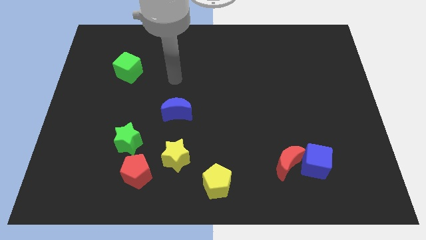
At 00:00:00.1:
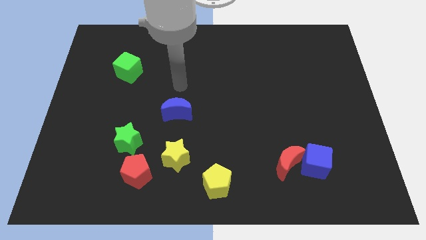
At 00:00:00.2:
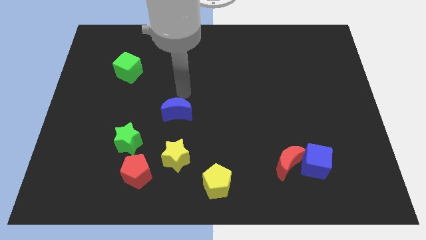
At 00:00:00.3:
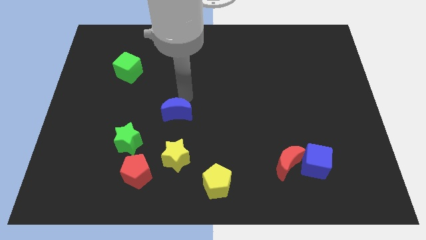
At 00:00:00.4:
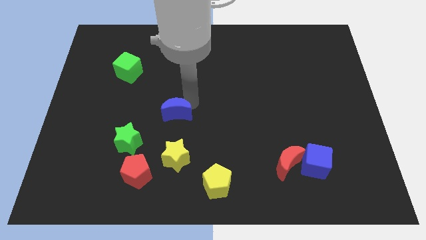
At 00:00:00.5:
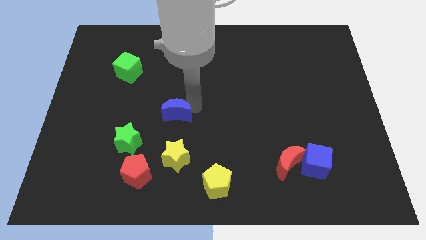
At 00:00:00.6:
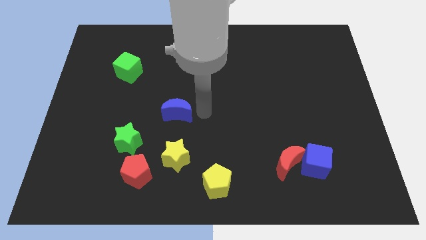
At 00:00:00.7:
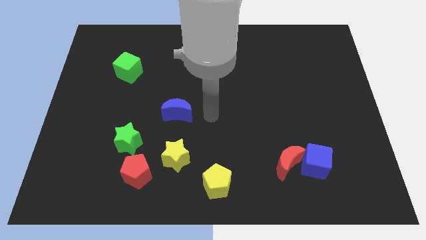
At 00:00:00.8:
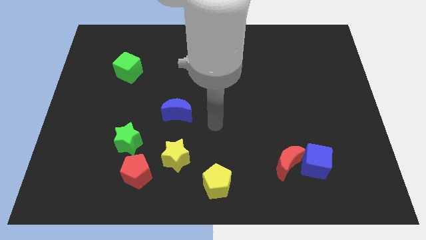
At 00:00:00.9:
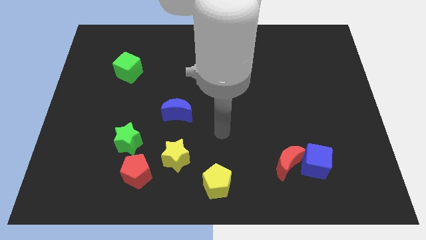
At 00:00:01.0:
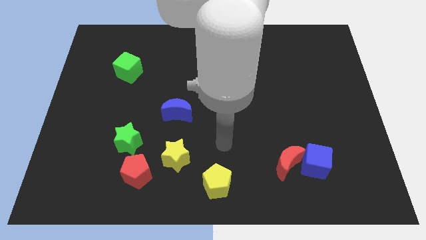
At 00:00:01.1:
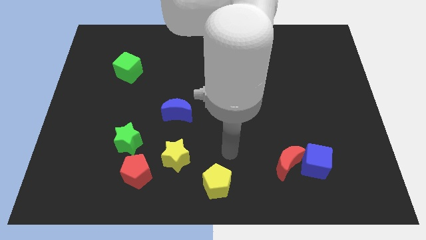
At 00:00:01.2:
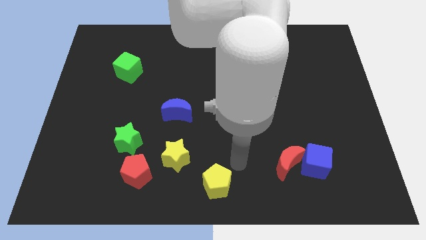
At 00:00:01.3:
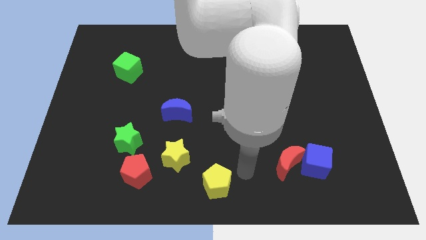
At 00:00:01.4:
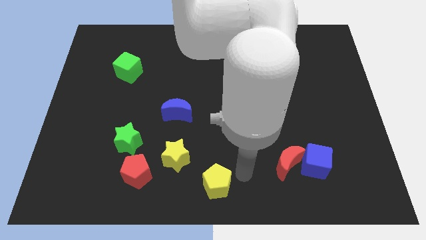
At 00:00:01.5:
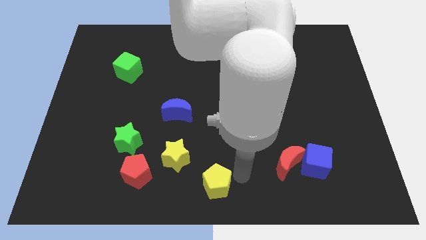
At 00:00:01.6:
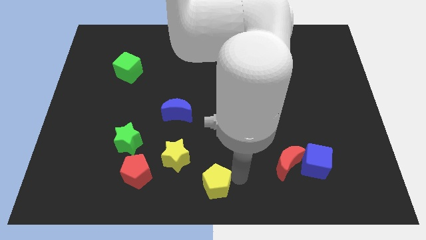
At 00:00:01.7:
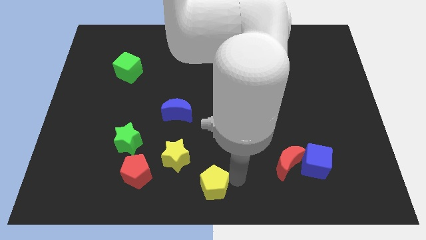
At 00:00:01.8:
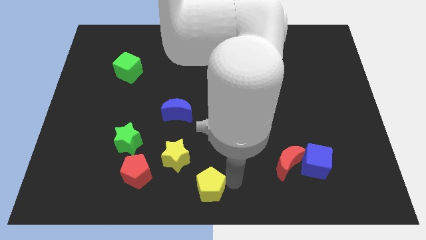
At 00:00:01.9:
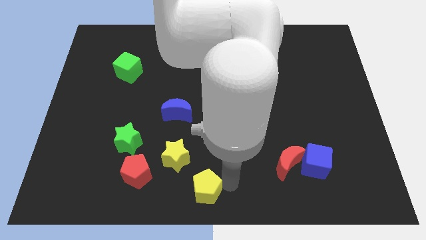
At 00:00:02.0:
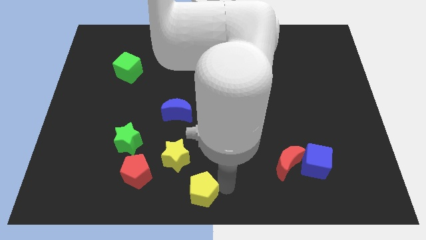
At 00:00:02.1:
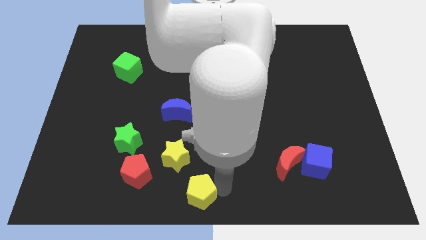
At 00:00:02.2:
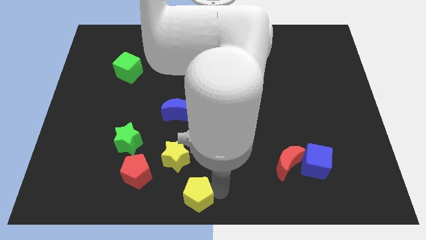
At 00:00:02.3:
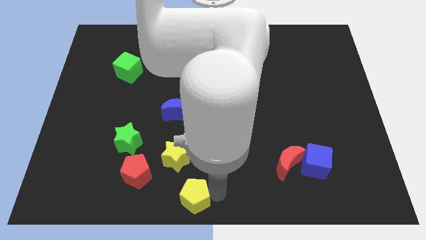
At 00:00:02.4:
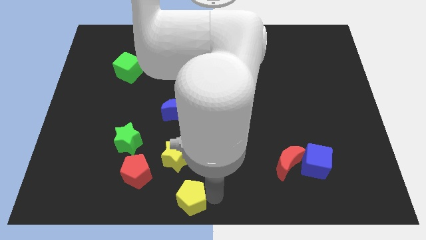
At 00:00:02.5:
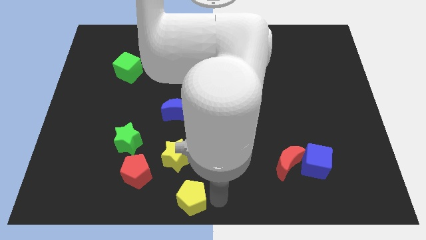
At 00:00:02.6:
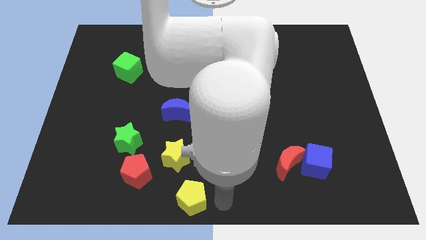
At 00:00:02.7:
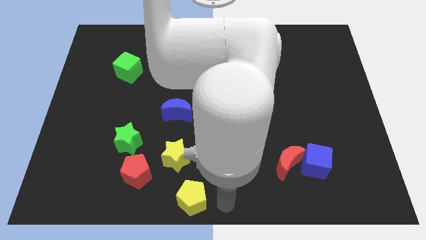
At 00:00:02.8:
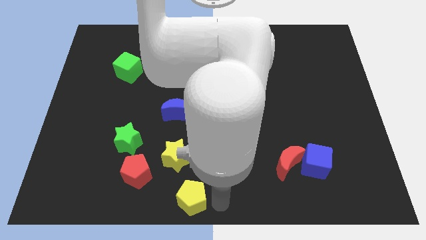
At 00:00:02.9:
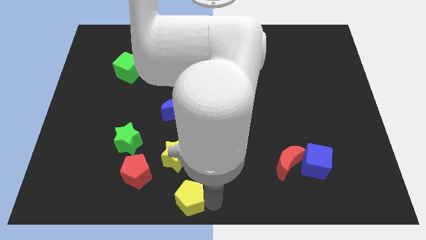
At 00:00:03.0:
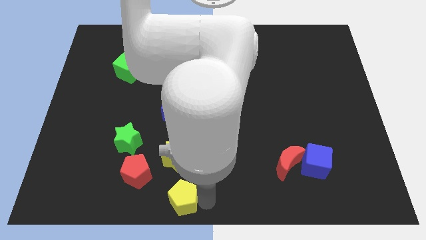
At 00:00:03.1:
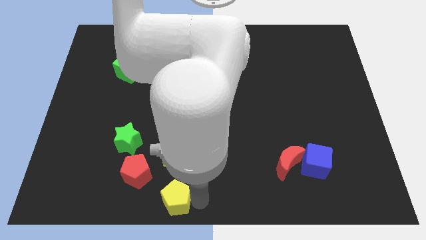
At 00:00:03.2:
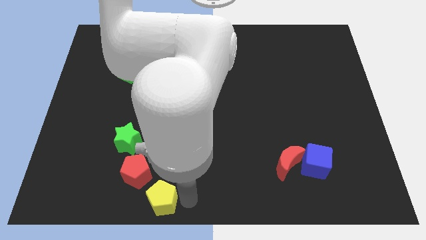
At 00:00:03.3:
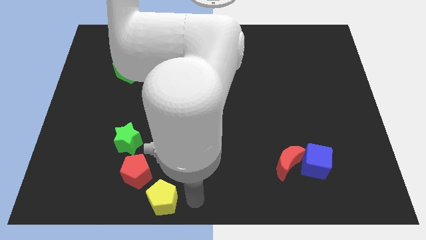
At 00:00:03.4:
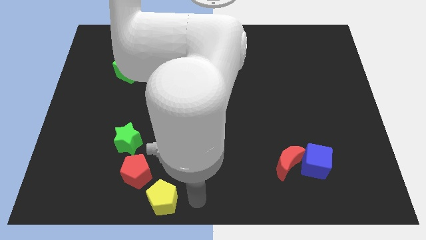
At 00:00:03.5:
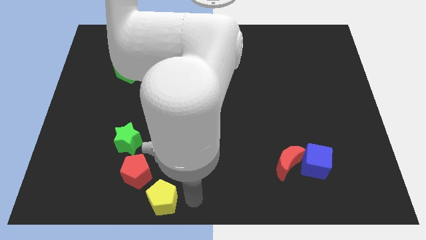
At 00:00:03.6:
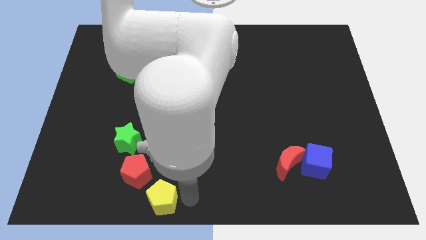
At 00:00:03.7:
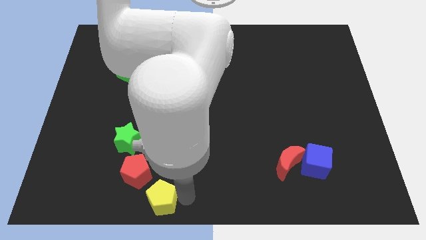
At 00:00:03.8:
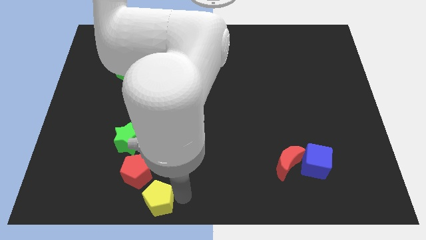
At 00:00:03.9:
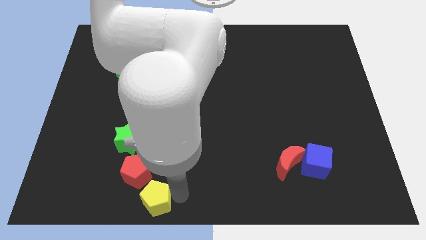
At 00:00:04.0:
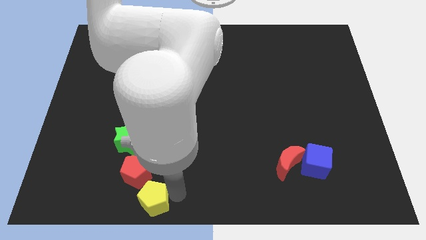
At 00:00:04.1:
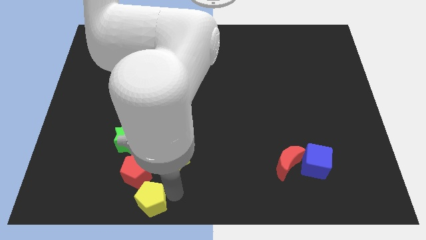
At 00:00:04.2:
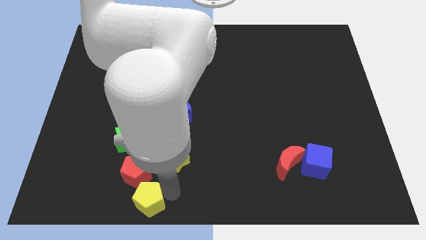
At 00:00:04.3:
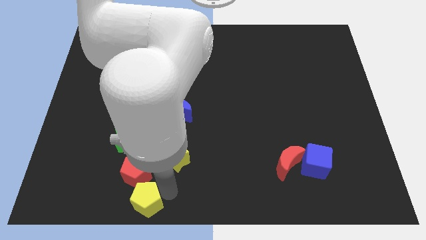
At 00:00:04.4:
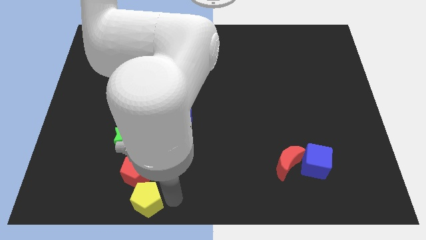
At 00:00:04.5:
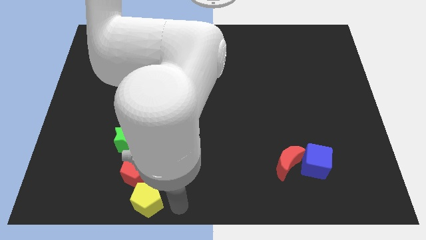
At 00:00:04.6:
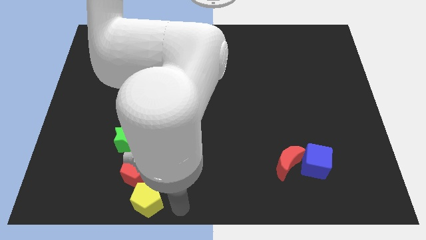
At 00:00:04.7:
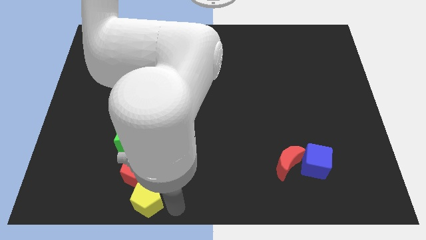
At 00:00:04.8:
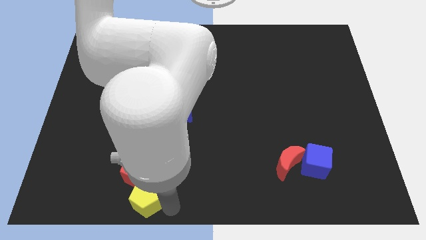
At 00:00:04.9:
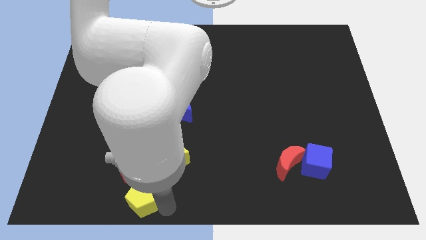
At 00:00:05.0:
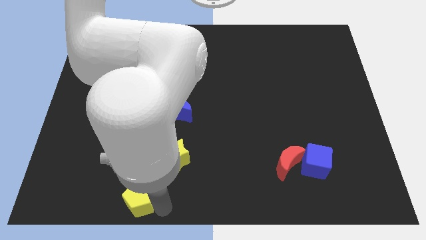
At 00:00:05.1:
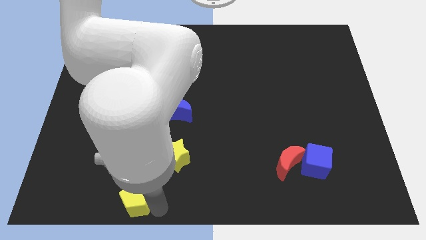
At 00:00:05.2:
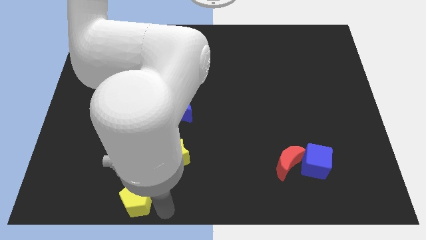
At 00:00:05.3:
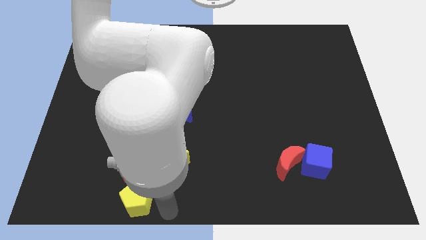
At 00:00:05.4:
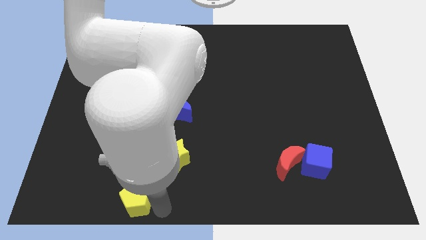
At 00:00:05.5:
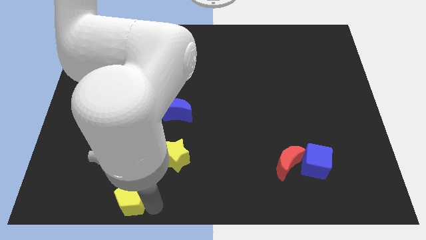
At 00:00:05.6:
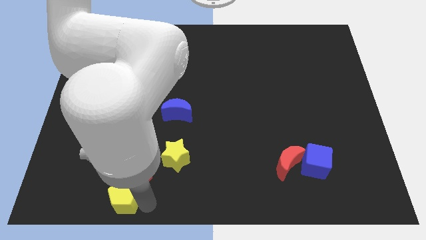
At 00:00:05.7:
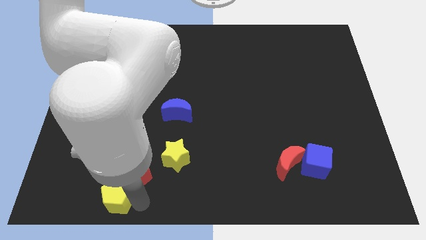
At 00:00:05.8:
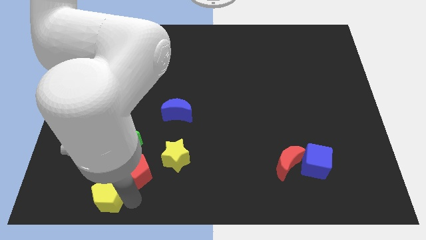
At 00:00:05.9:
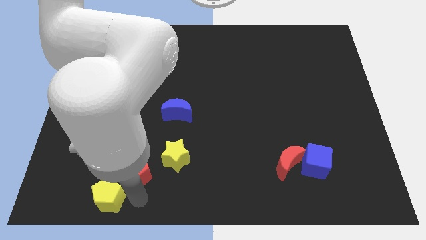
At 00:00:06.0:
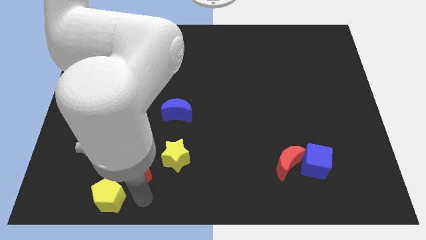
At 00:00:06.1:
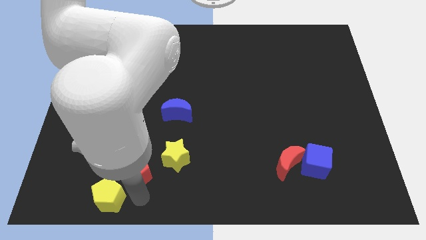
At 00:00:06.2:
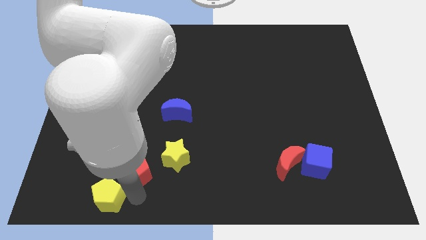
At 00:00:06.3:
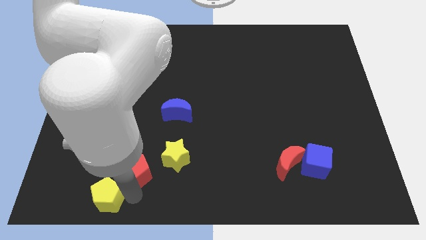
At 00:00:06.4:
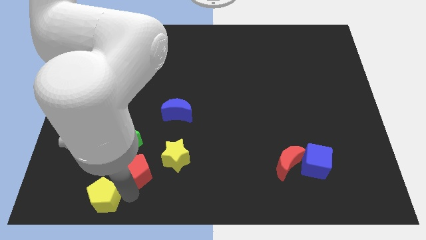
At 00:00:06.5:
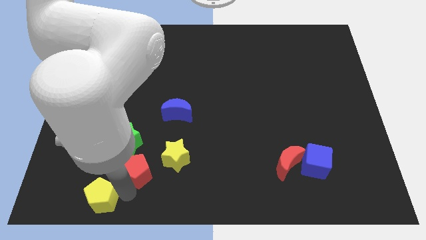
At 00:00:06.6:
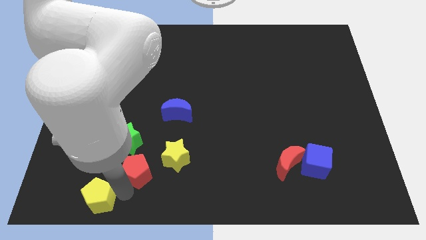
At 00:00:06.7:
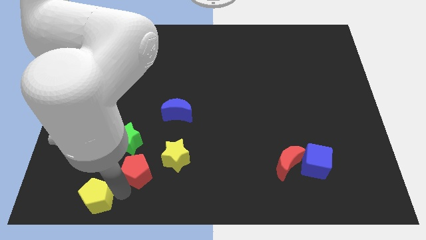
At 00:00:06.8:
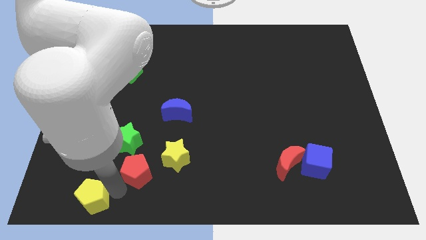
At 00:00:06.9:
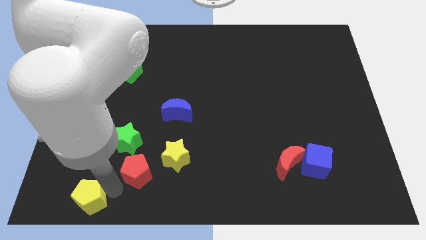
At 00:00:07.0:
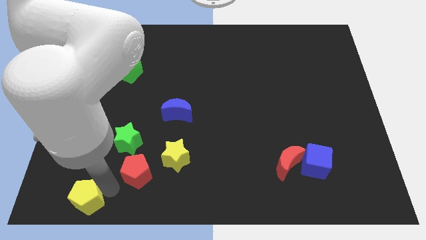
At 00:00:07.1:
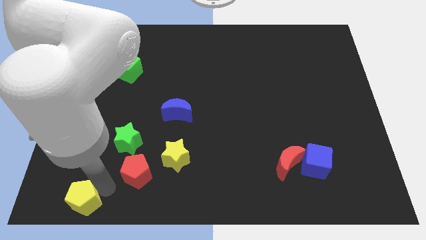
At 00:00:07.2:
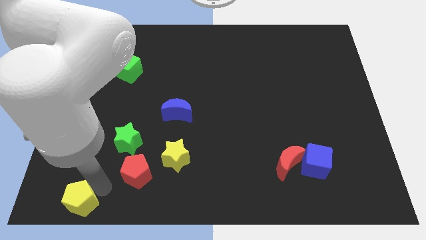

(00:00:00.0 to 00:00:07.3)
put the yellow pentagon to the bottom left of the board
